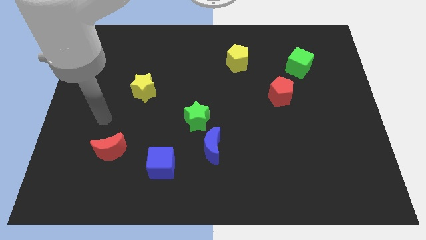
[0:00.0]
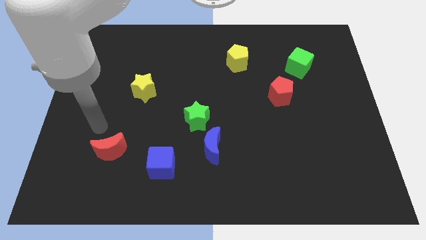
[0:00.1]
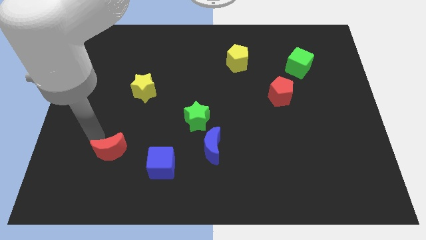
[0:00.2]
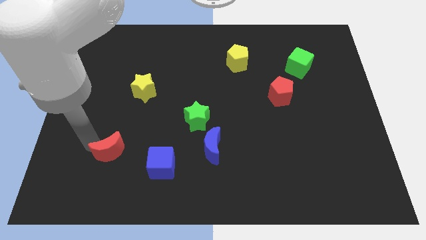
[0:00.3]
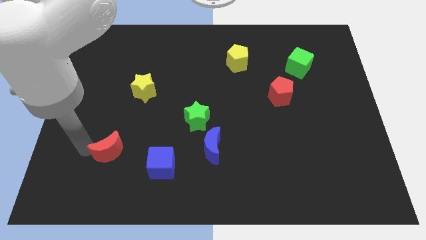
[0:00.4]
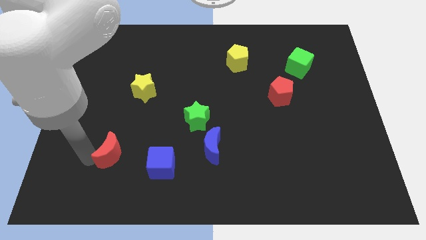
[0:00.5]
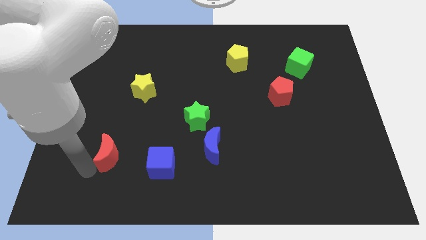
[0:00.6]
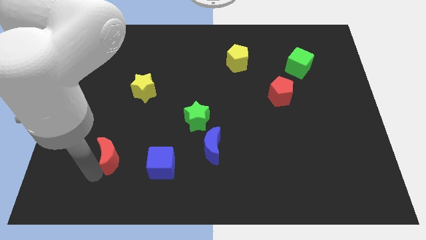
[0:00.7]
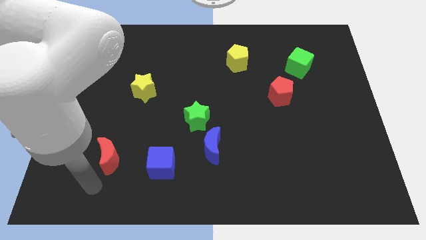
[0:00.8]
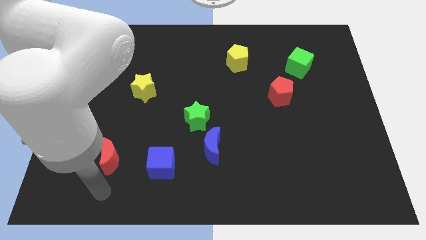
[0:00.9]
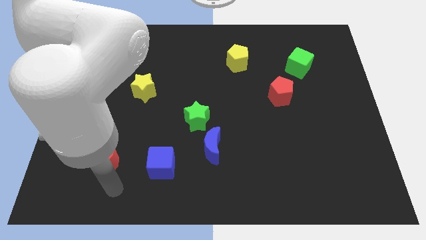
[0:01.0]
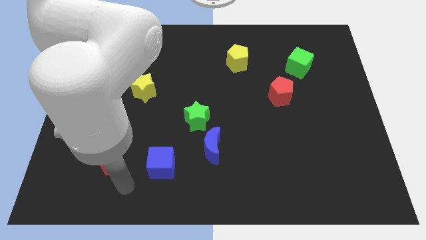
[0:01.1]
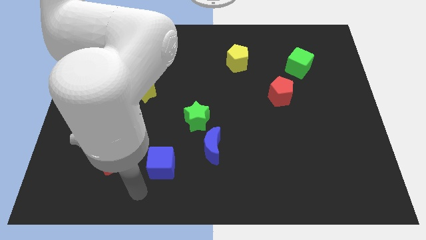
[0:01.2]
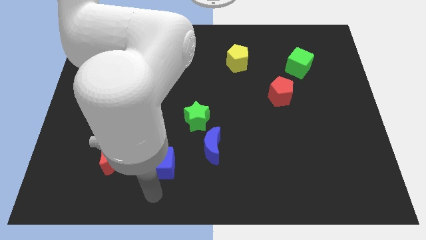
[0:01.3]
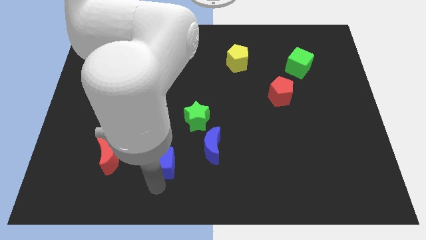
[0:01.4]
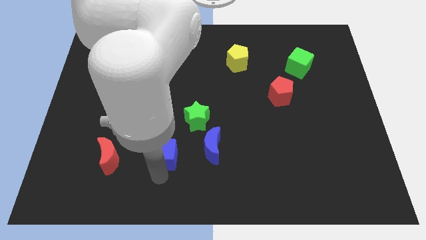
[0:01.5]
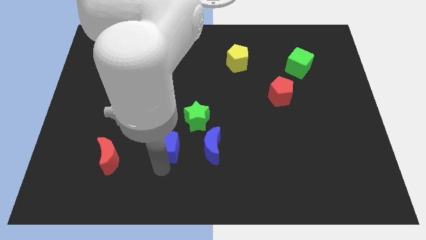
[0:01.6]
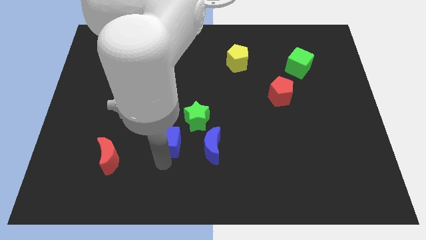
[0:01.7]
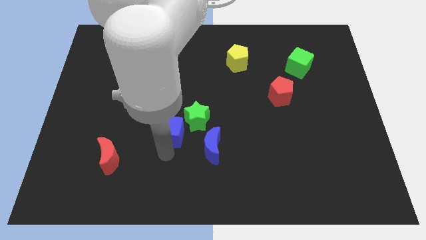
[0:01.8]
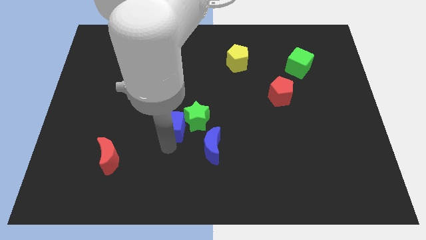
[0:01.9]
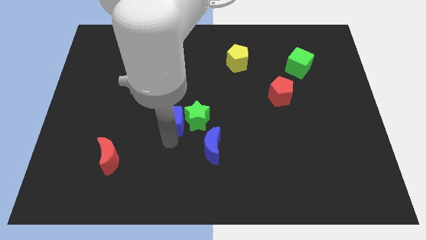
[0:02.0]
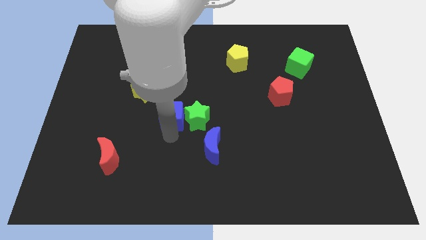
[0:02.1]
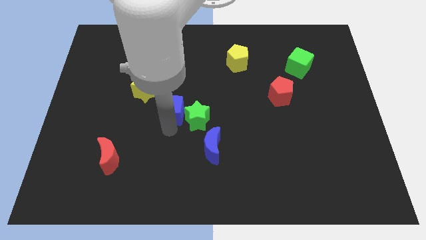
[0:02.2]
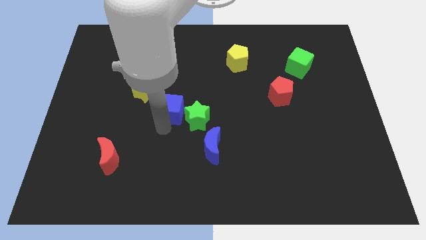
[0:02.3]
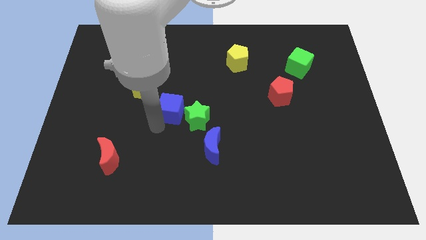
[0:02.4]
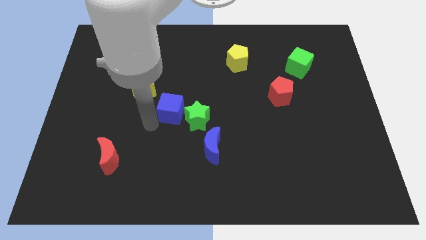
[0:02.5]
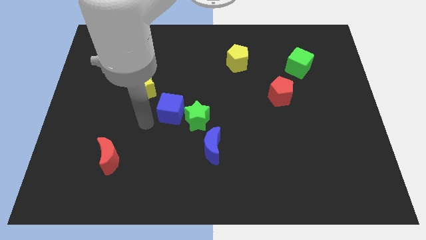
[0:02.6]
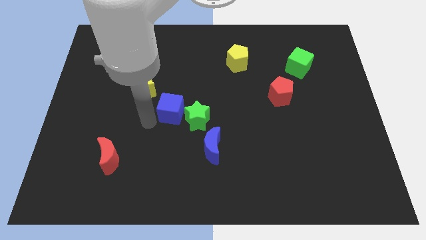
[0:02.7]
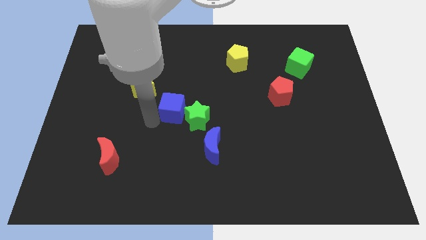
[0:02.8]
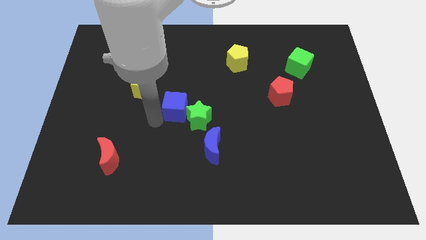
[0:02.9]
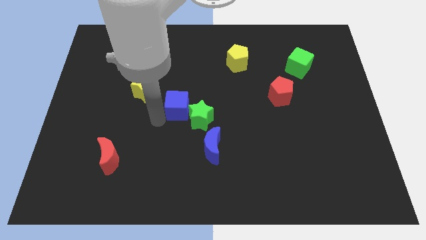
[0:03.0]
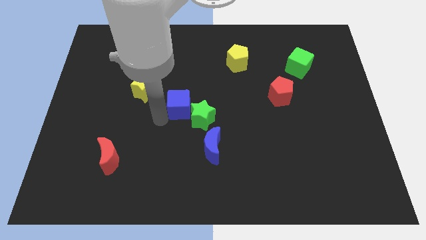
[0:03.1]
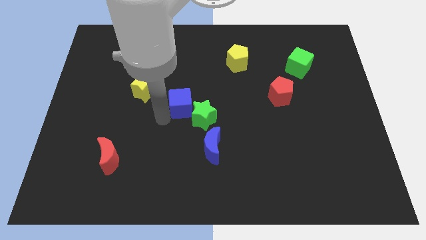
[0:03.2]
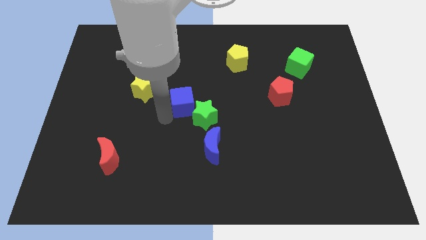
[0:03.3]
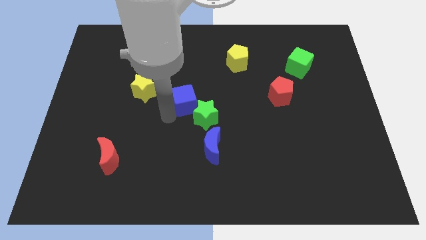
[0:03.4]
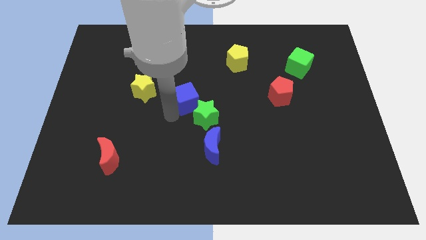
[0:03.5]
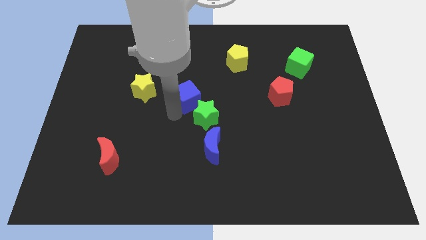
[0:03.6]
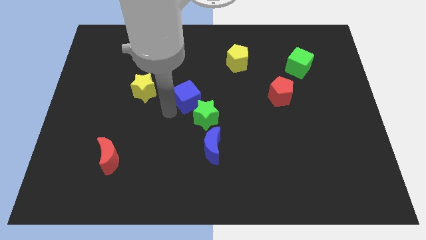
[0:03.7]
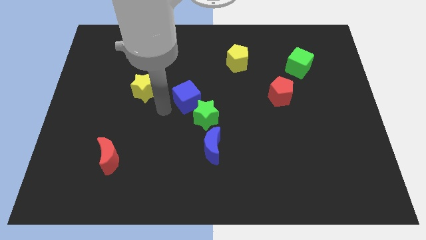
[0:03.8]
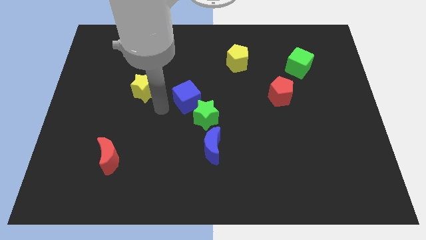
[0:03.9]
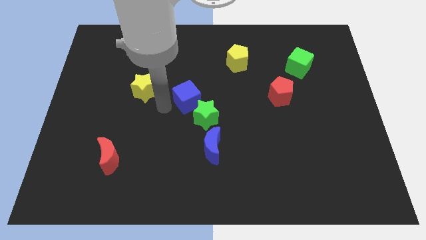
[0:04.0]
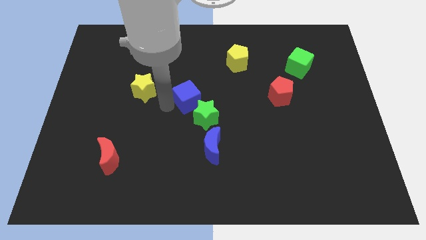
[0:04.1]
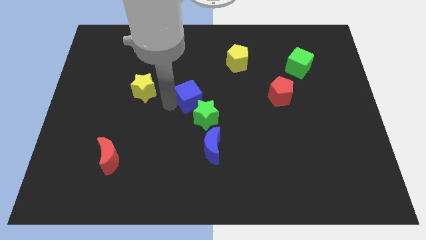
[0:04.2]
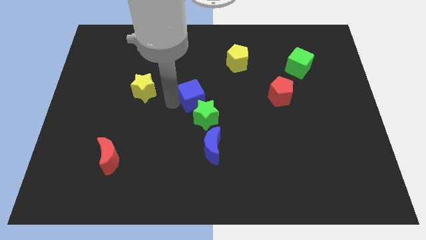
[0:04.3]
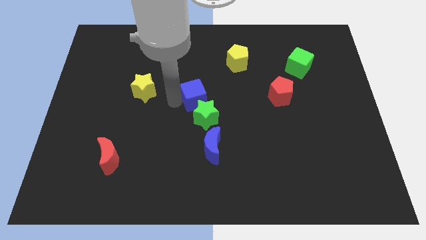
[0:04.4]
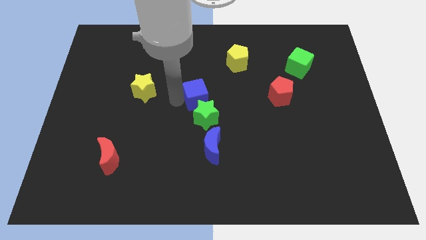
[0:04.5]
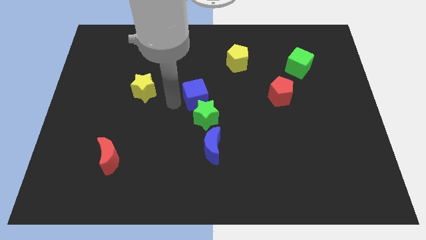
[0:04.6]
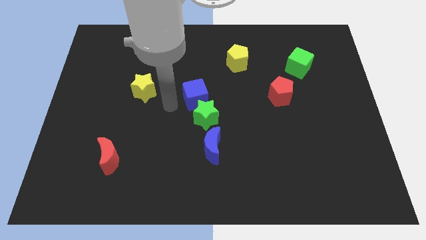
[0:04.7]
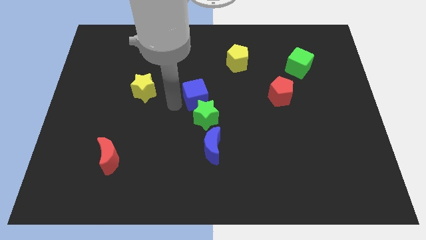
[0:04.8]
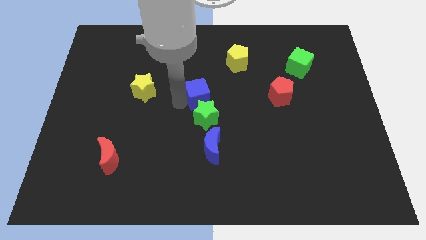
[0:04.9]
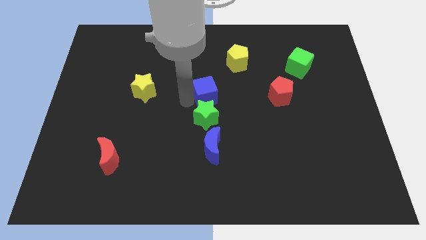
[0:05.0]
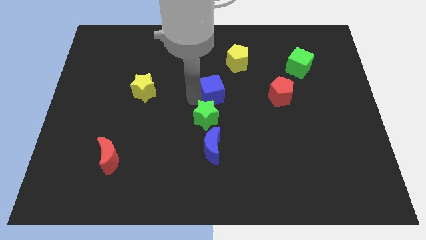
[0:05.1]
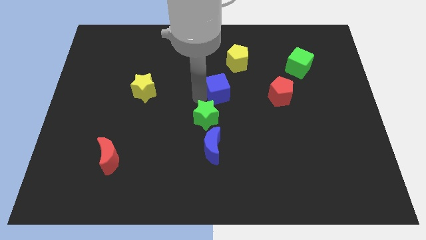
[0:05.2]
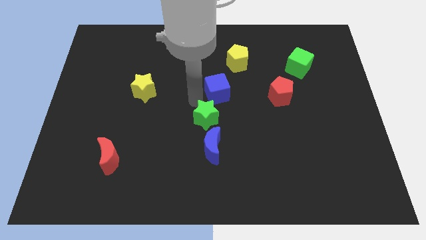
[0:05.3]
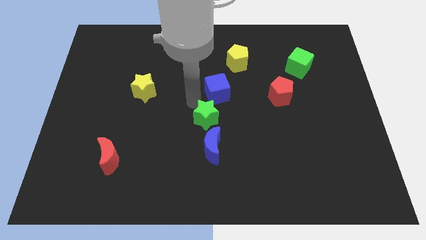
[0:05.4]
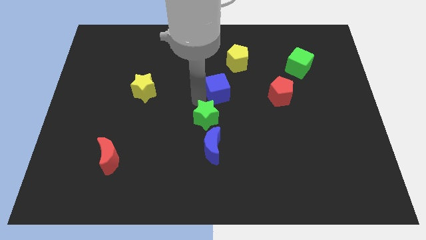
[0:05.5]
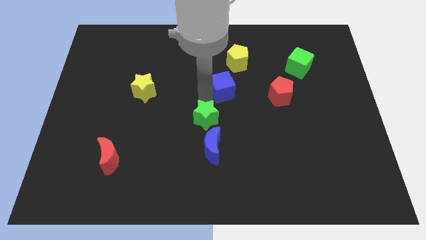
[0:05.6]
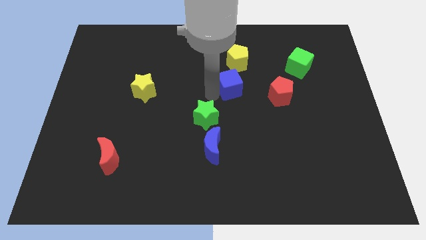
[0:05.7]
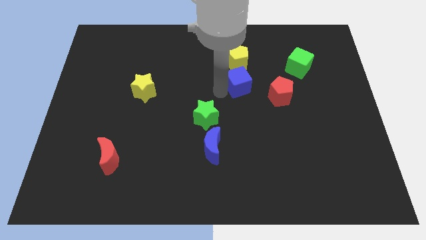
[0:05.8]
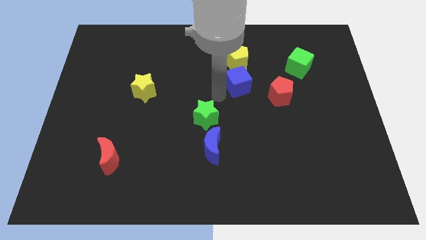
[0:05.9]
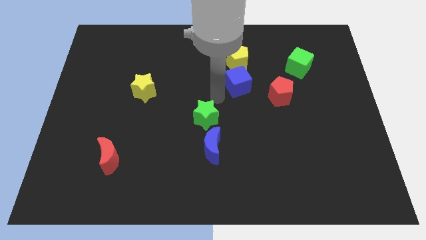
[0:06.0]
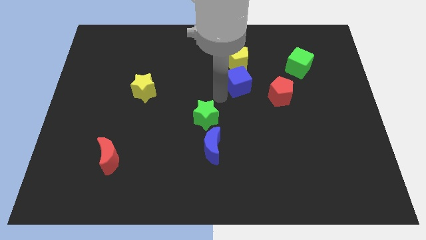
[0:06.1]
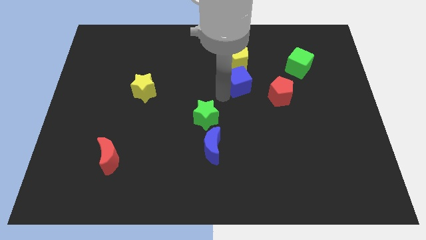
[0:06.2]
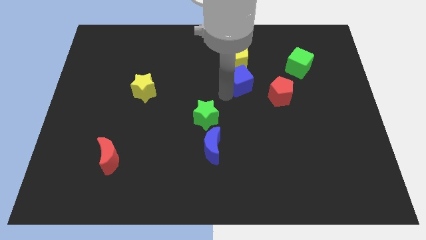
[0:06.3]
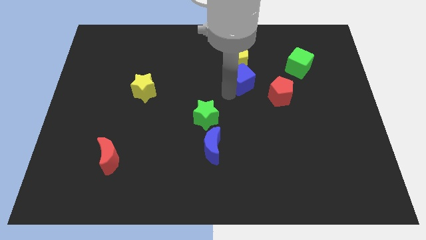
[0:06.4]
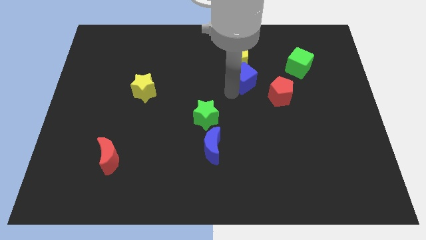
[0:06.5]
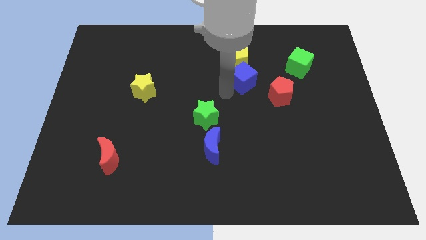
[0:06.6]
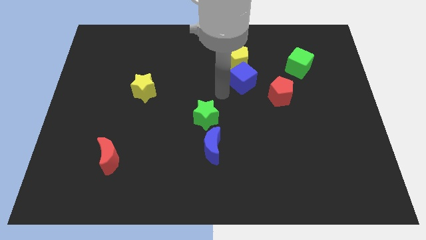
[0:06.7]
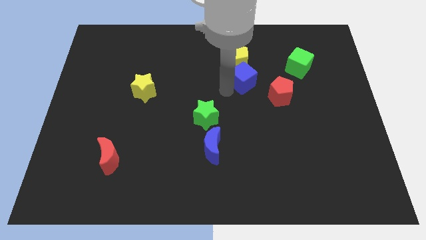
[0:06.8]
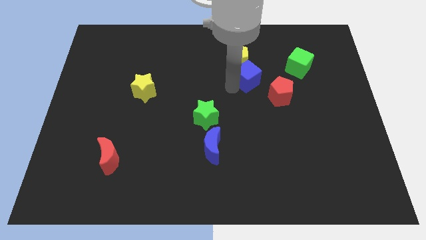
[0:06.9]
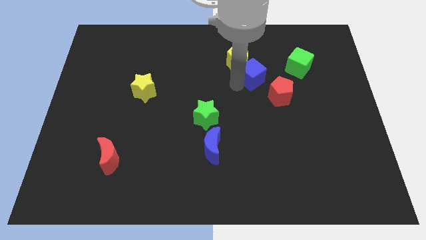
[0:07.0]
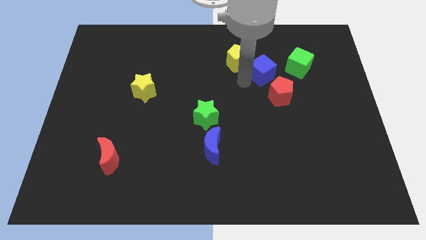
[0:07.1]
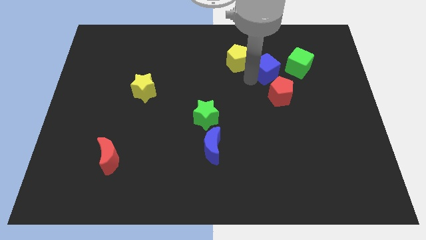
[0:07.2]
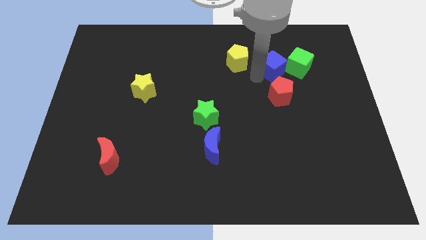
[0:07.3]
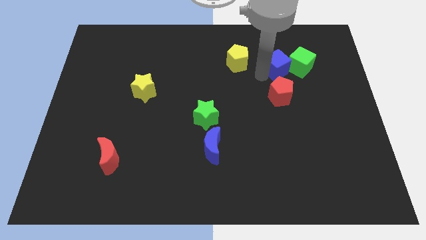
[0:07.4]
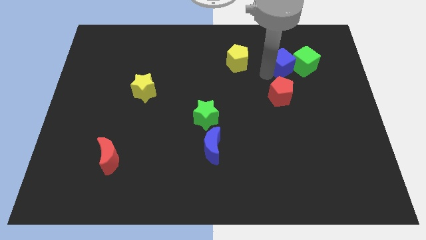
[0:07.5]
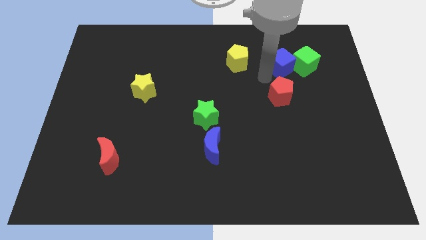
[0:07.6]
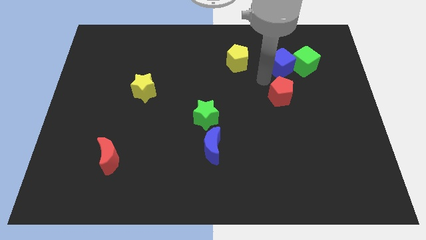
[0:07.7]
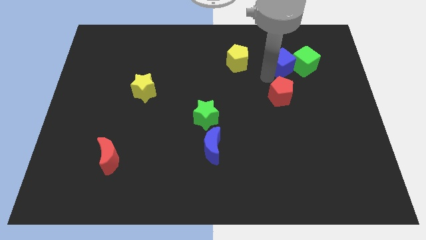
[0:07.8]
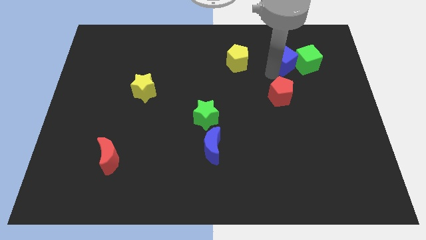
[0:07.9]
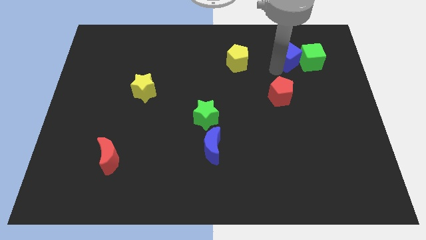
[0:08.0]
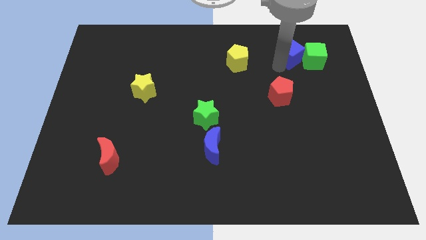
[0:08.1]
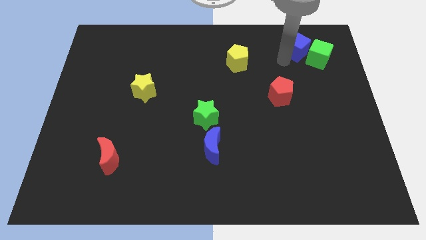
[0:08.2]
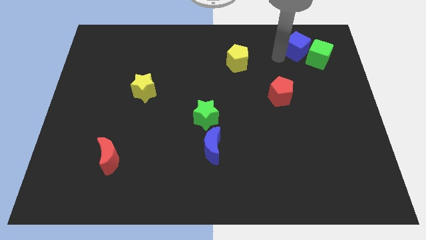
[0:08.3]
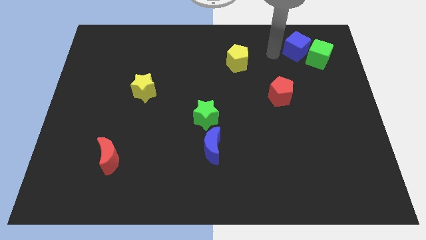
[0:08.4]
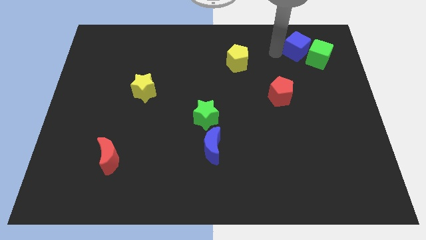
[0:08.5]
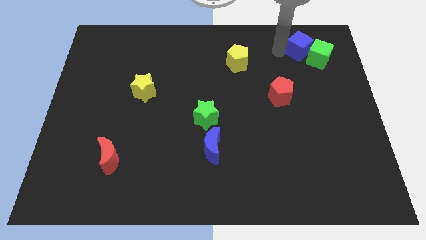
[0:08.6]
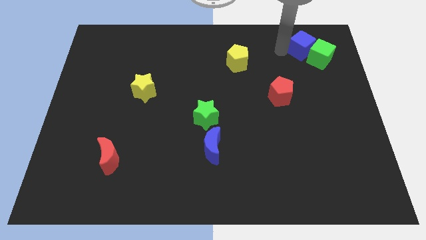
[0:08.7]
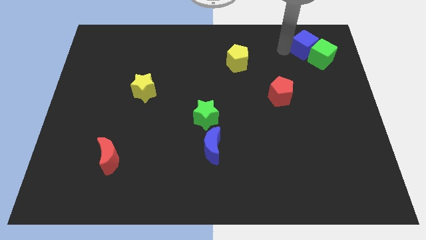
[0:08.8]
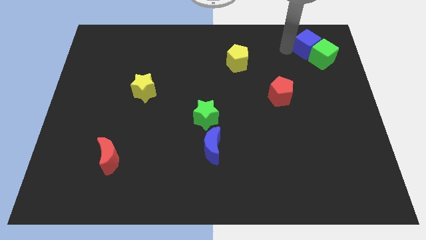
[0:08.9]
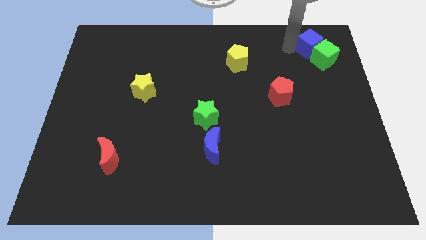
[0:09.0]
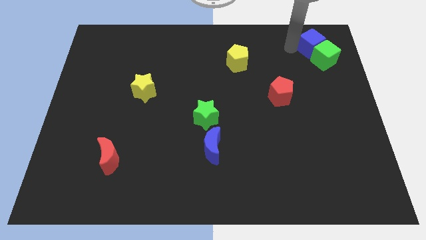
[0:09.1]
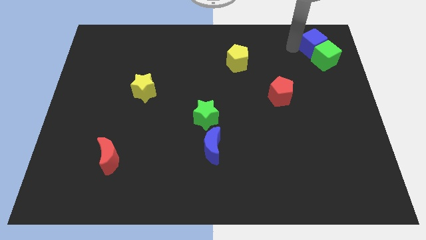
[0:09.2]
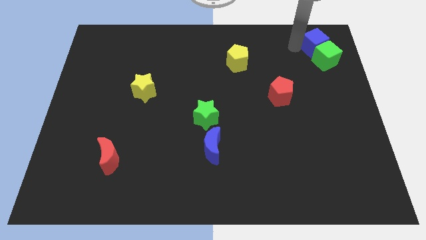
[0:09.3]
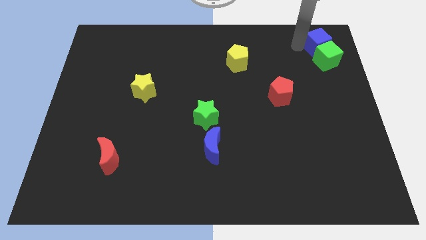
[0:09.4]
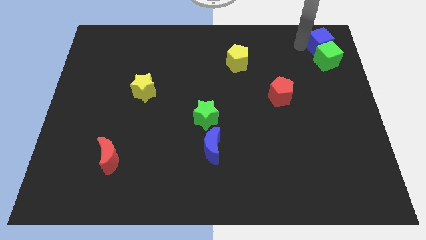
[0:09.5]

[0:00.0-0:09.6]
put the blue cube to the upper right corner
